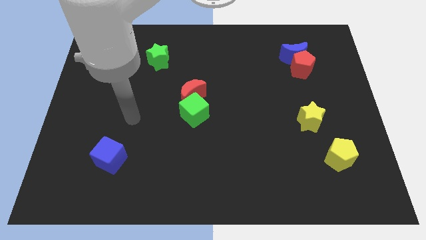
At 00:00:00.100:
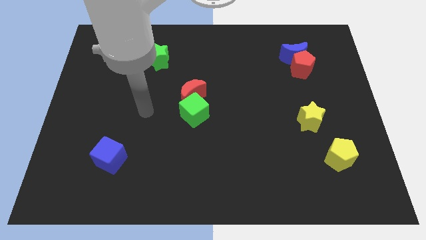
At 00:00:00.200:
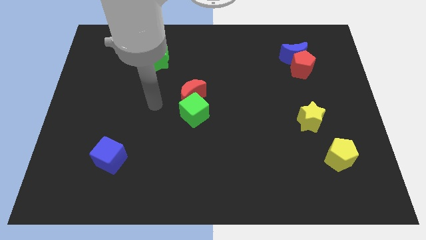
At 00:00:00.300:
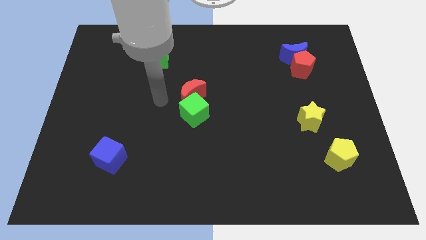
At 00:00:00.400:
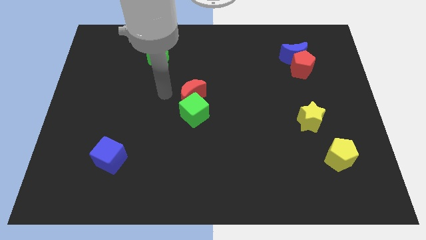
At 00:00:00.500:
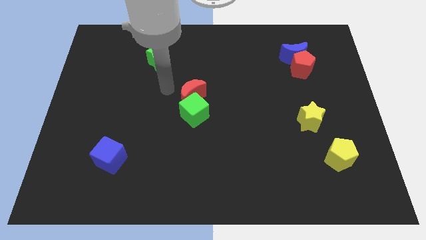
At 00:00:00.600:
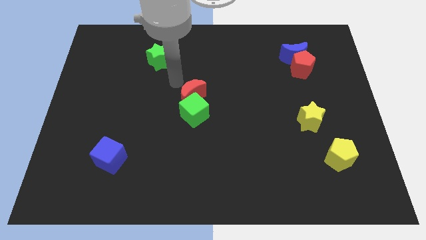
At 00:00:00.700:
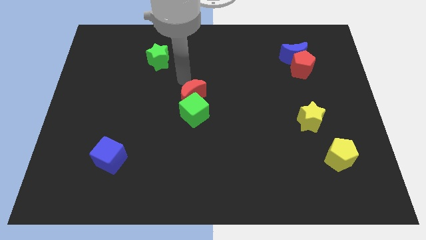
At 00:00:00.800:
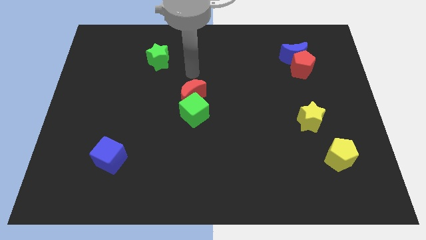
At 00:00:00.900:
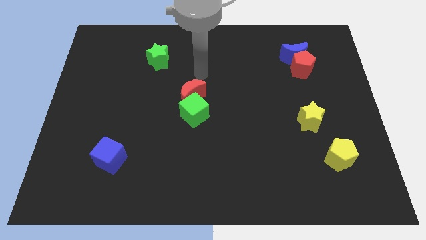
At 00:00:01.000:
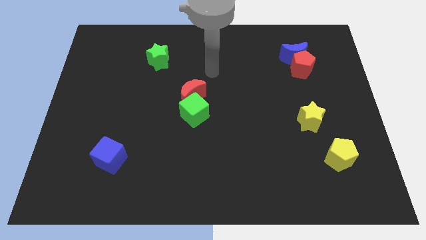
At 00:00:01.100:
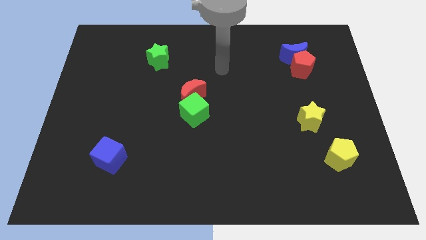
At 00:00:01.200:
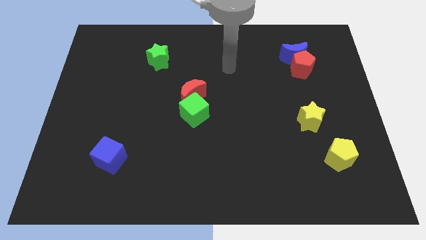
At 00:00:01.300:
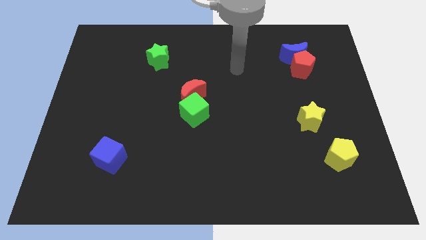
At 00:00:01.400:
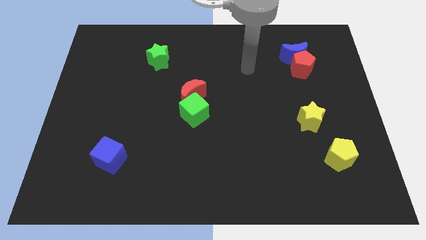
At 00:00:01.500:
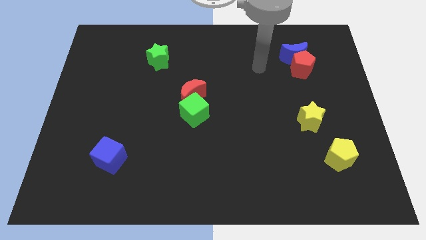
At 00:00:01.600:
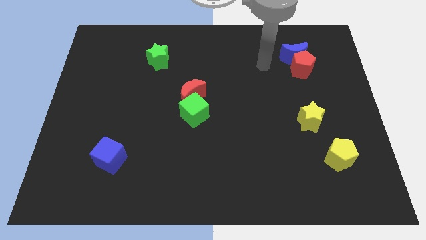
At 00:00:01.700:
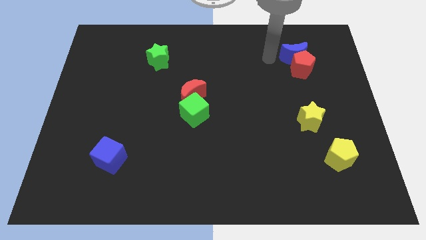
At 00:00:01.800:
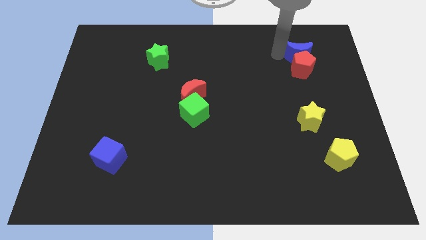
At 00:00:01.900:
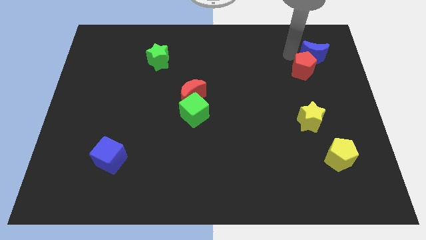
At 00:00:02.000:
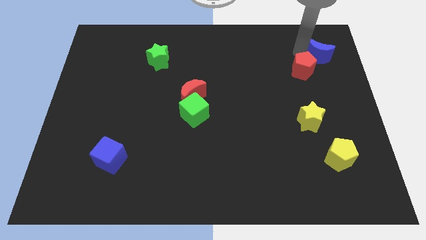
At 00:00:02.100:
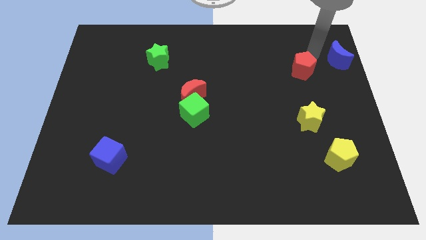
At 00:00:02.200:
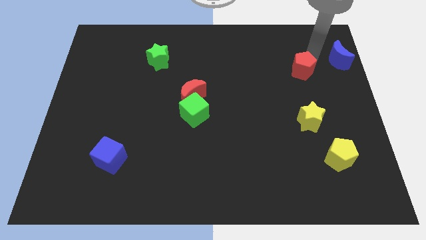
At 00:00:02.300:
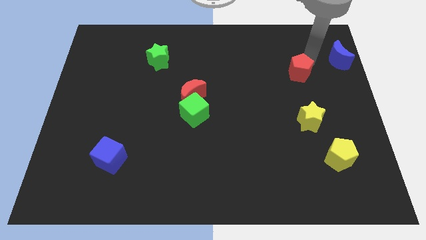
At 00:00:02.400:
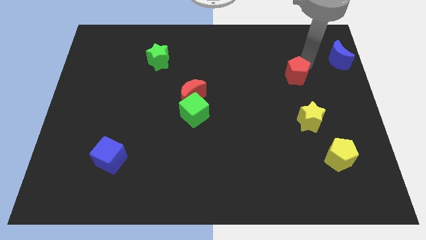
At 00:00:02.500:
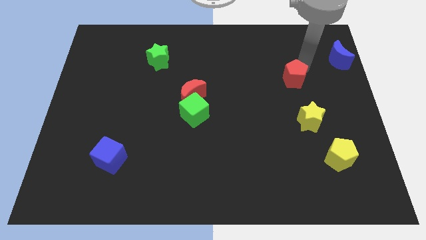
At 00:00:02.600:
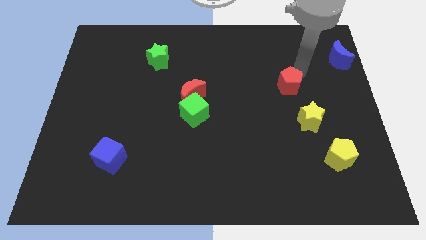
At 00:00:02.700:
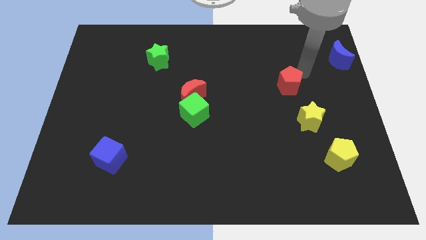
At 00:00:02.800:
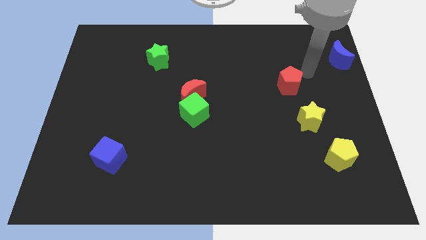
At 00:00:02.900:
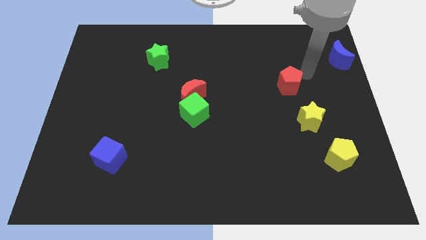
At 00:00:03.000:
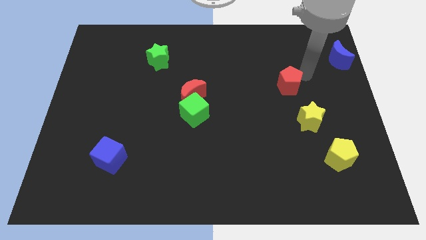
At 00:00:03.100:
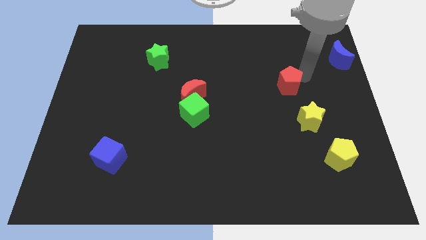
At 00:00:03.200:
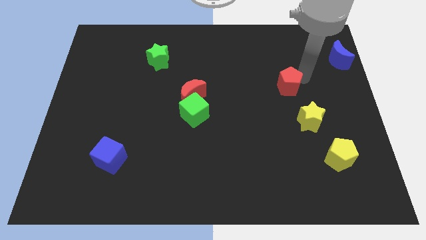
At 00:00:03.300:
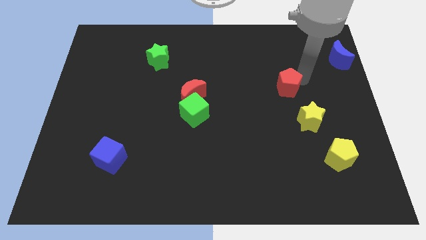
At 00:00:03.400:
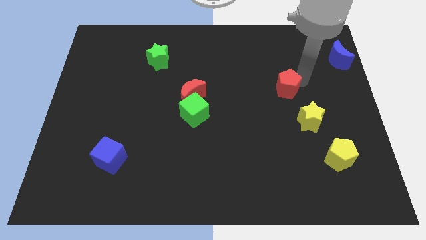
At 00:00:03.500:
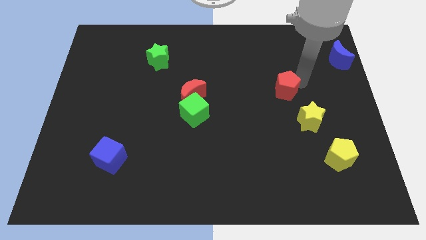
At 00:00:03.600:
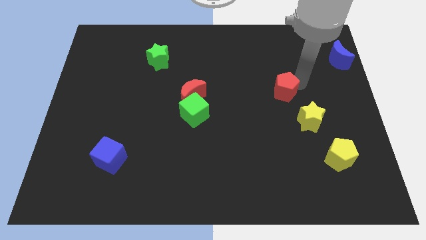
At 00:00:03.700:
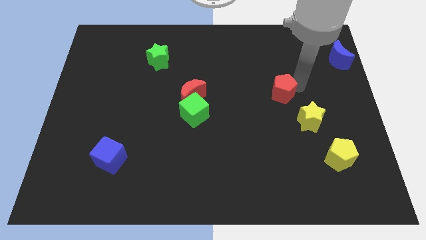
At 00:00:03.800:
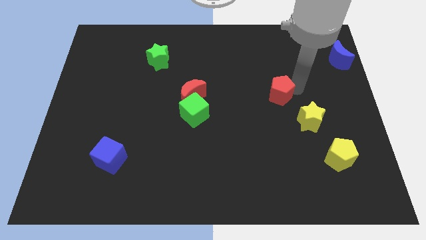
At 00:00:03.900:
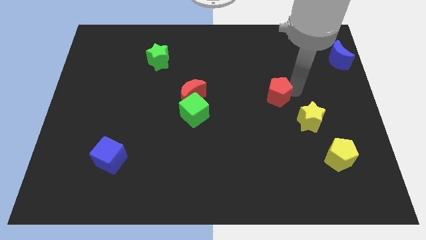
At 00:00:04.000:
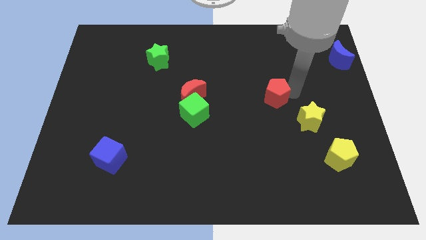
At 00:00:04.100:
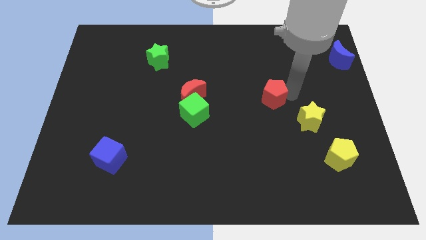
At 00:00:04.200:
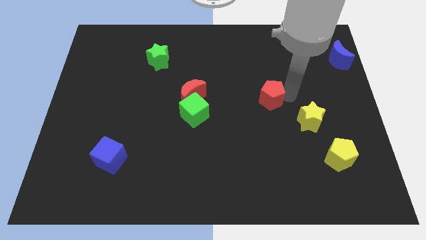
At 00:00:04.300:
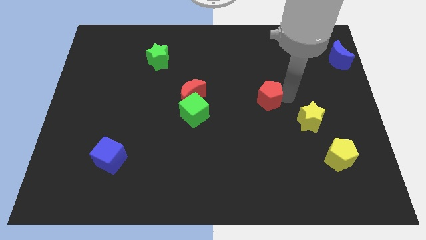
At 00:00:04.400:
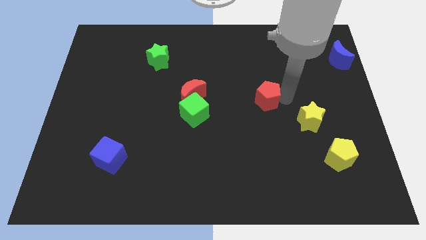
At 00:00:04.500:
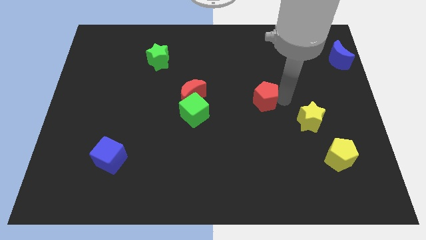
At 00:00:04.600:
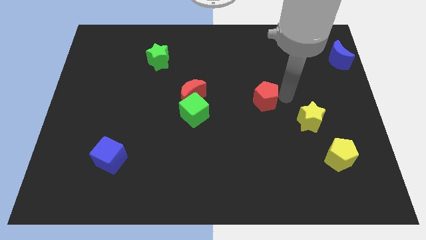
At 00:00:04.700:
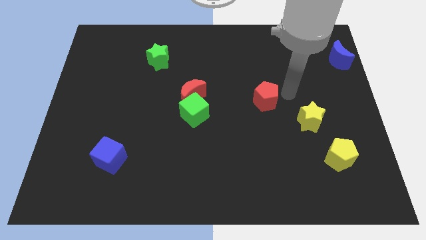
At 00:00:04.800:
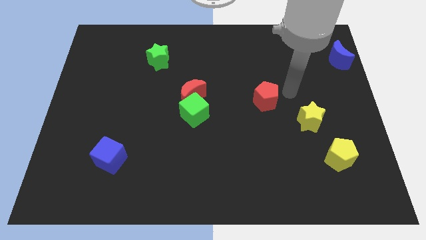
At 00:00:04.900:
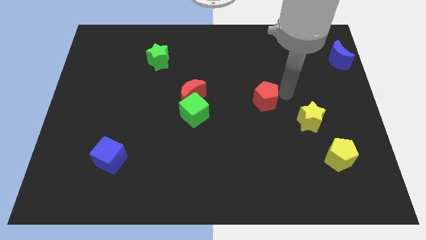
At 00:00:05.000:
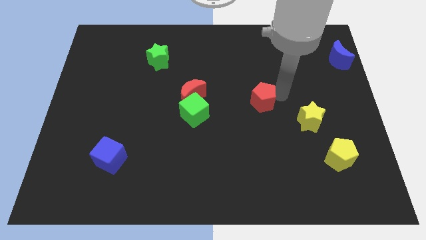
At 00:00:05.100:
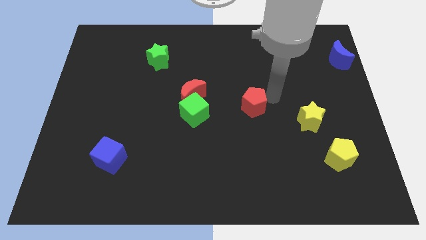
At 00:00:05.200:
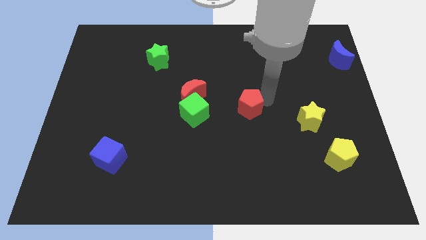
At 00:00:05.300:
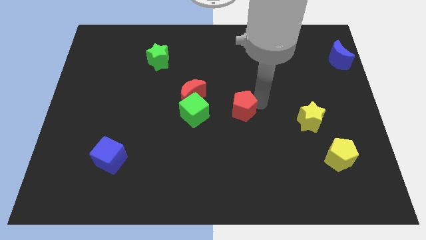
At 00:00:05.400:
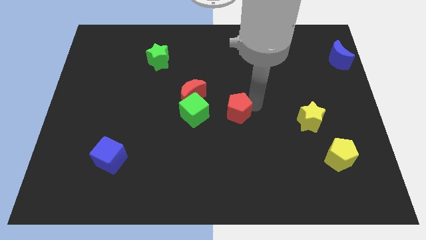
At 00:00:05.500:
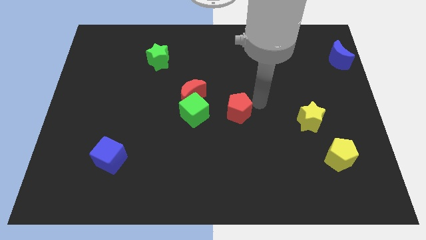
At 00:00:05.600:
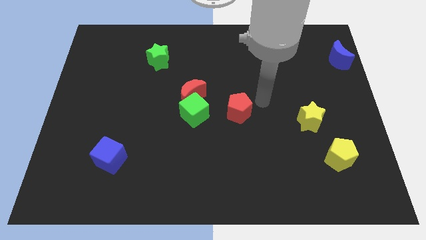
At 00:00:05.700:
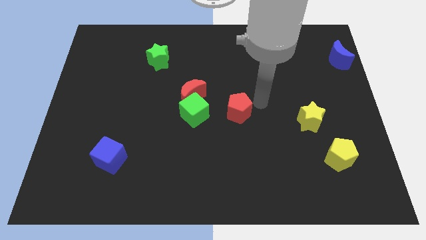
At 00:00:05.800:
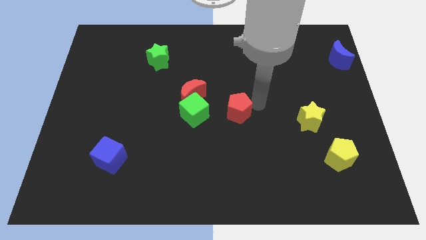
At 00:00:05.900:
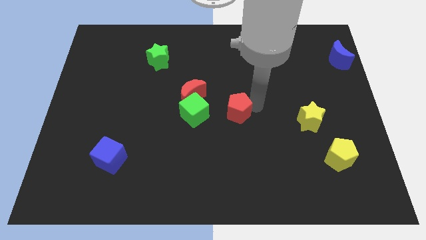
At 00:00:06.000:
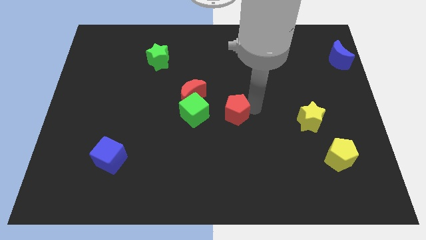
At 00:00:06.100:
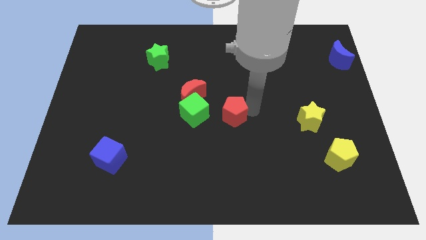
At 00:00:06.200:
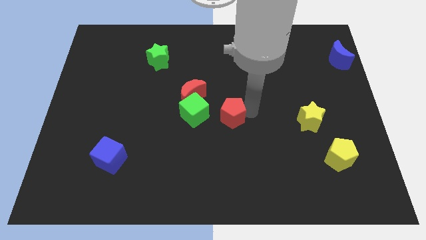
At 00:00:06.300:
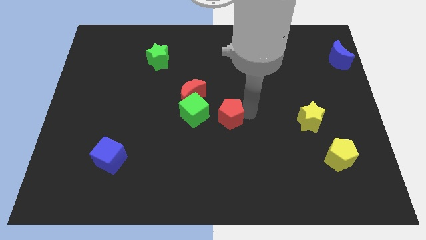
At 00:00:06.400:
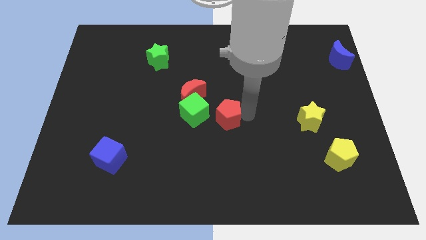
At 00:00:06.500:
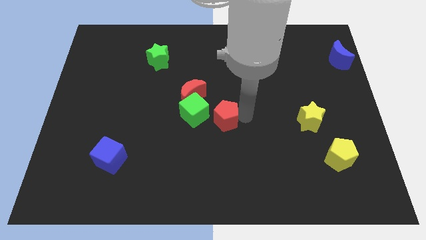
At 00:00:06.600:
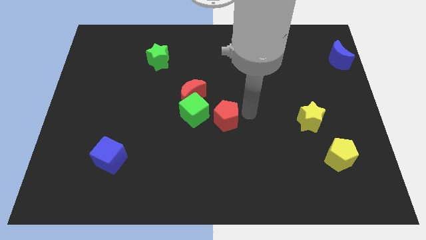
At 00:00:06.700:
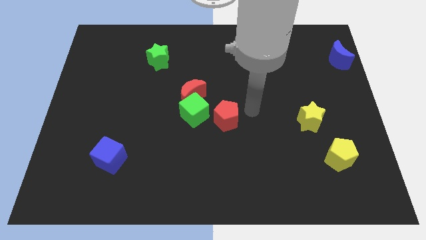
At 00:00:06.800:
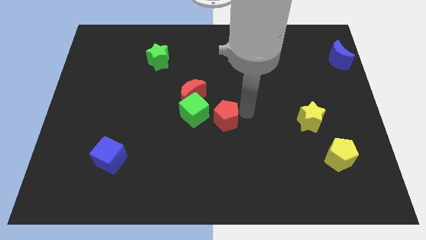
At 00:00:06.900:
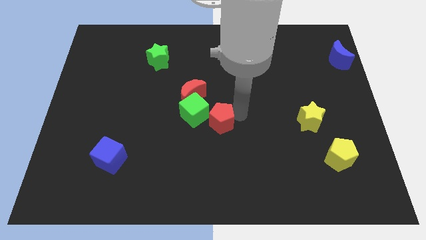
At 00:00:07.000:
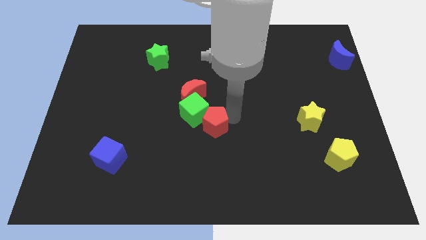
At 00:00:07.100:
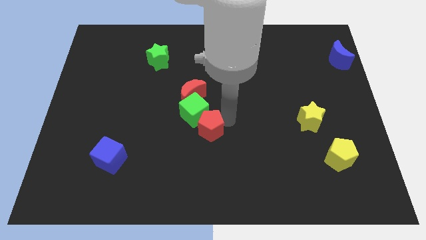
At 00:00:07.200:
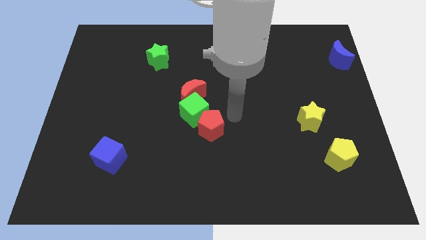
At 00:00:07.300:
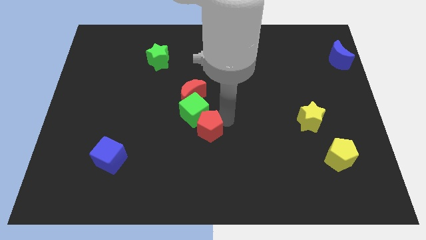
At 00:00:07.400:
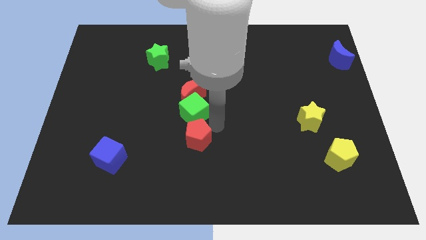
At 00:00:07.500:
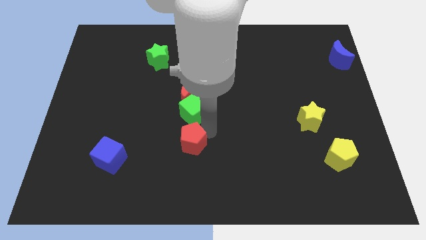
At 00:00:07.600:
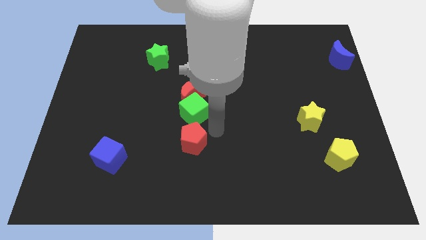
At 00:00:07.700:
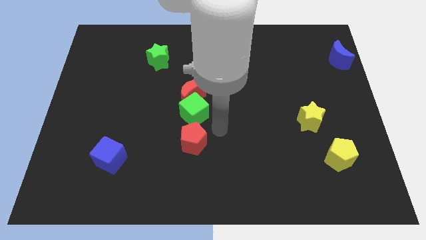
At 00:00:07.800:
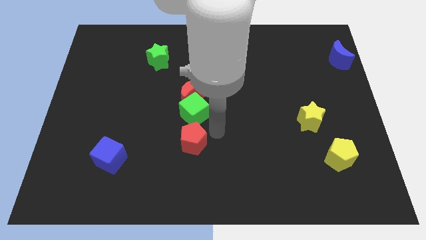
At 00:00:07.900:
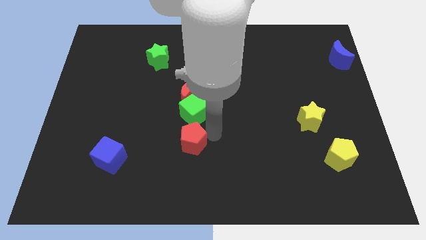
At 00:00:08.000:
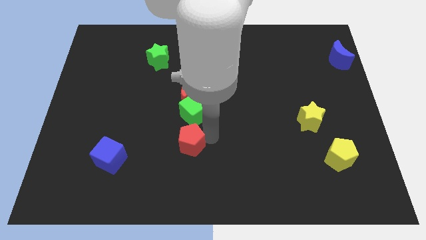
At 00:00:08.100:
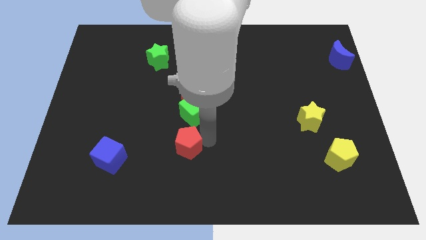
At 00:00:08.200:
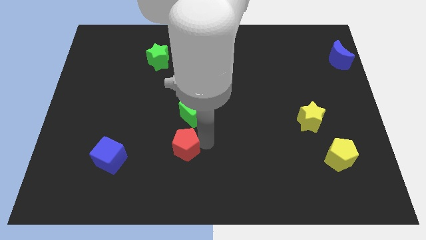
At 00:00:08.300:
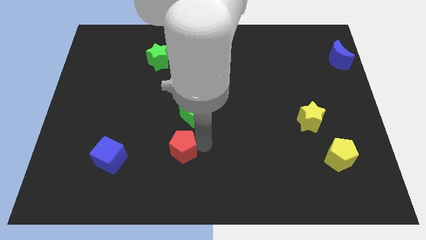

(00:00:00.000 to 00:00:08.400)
push the red pentagon just right of the blue cube
